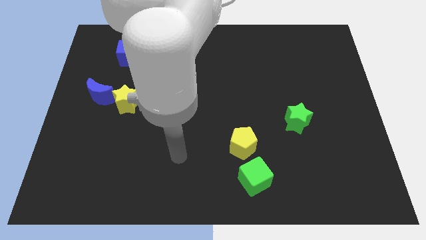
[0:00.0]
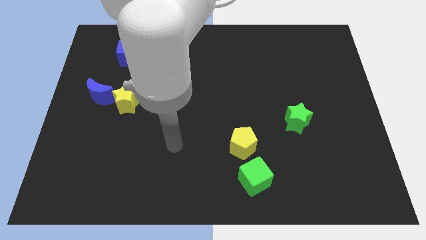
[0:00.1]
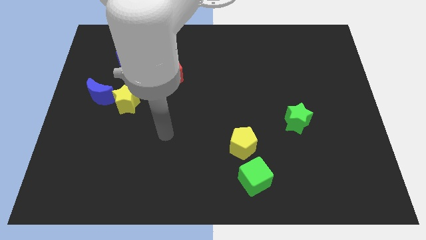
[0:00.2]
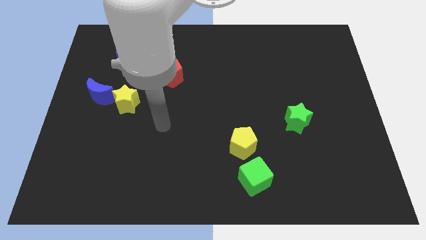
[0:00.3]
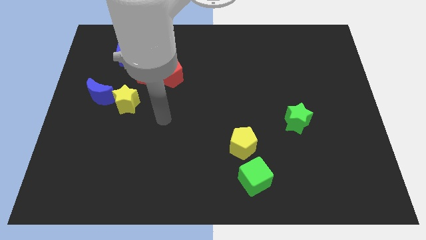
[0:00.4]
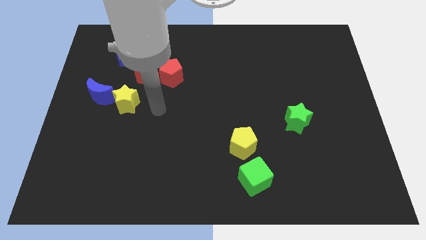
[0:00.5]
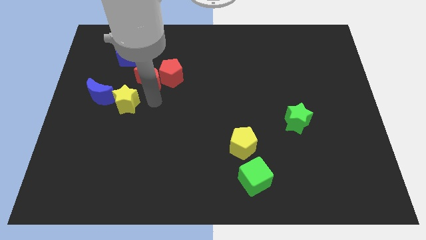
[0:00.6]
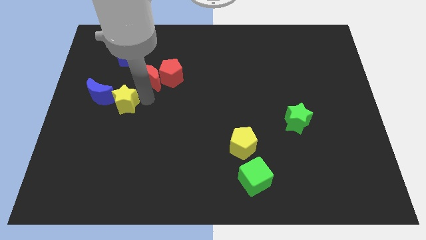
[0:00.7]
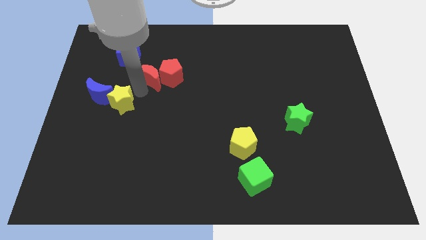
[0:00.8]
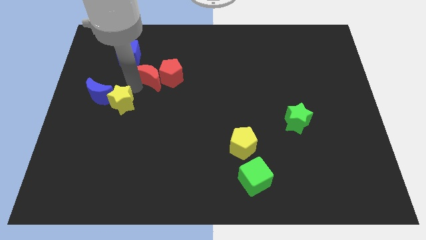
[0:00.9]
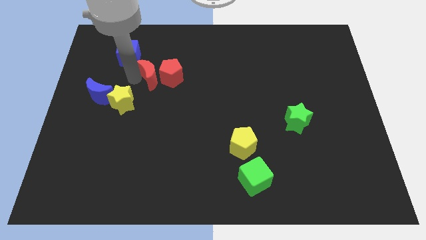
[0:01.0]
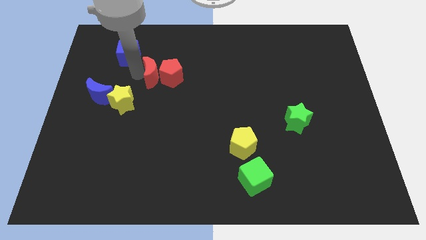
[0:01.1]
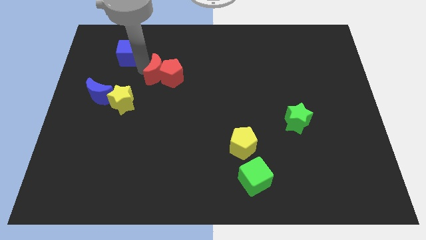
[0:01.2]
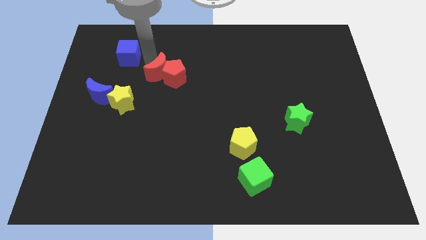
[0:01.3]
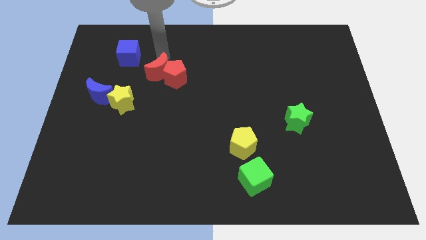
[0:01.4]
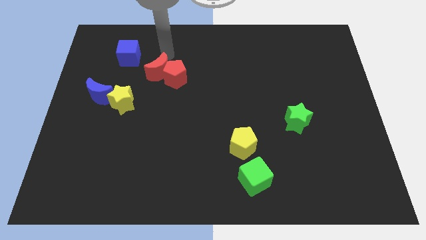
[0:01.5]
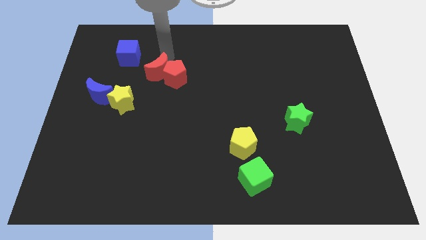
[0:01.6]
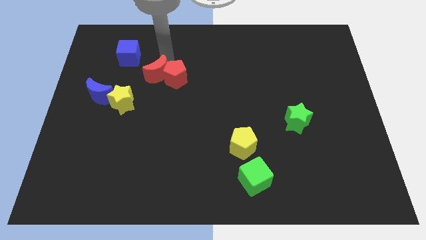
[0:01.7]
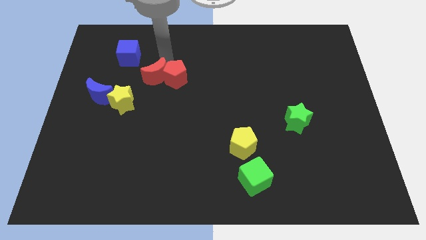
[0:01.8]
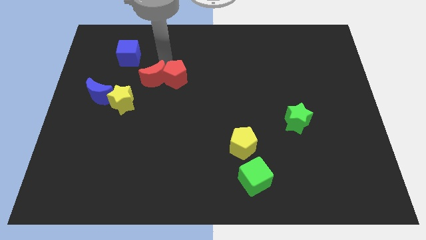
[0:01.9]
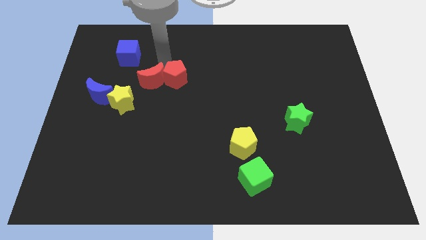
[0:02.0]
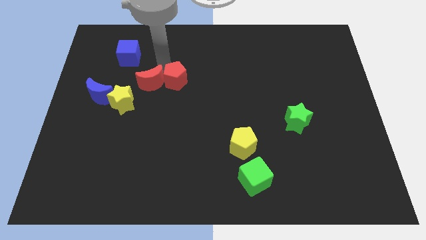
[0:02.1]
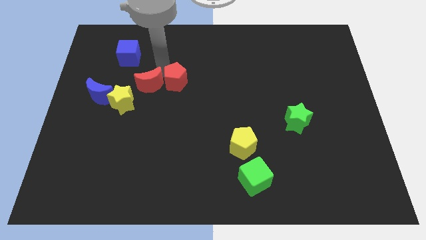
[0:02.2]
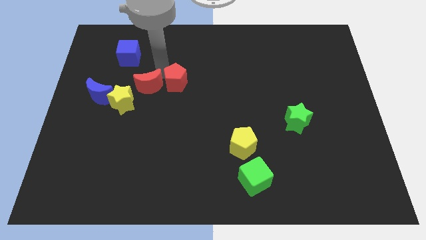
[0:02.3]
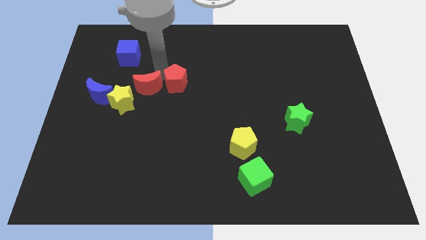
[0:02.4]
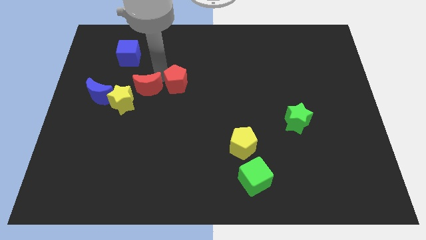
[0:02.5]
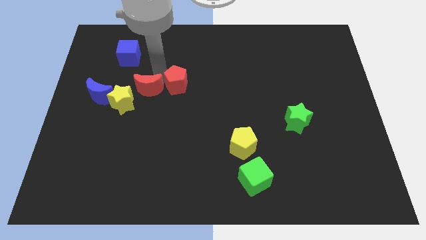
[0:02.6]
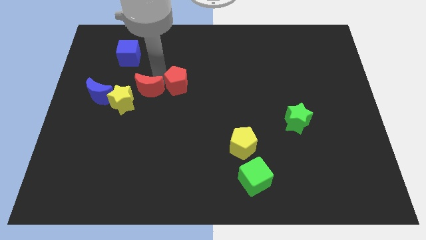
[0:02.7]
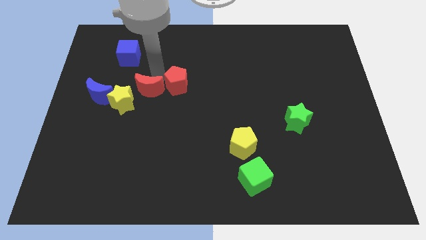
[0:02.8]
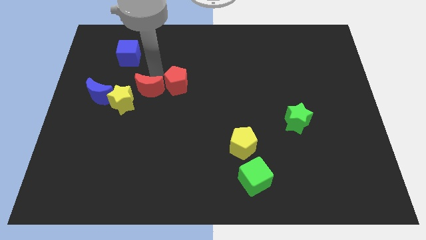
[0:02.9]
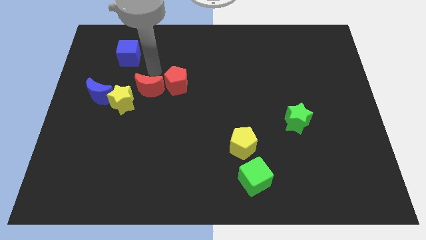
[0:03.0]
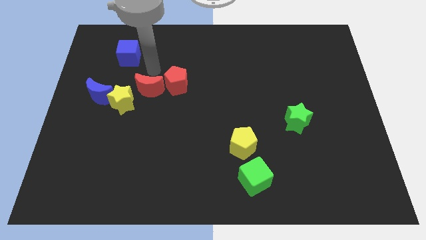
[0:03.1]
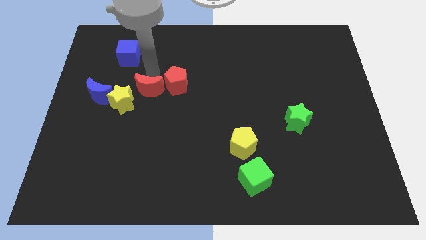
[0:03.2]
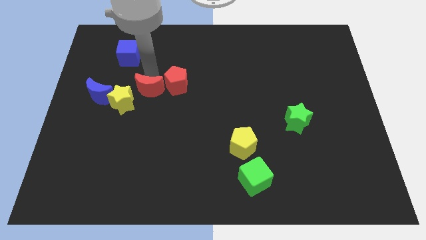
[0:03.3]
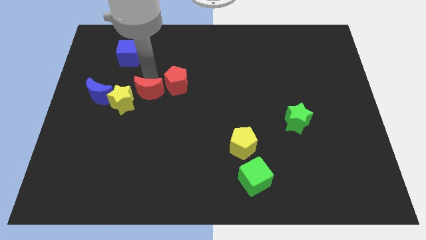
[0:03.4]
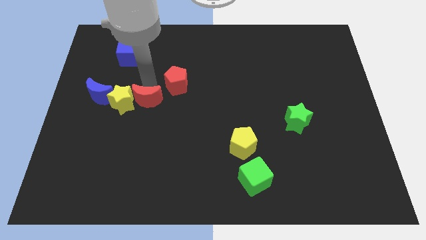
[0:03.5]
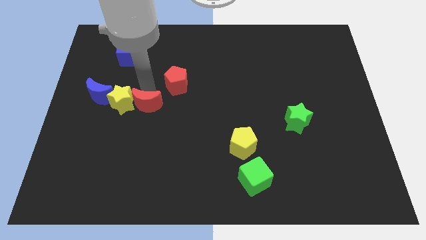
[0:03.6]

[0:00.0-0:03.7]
move the red moon a little down

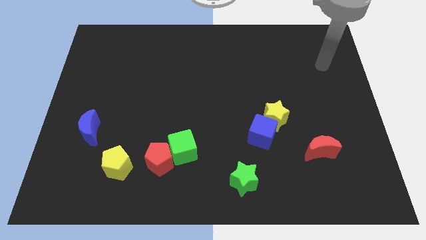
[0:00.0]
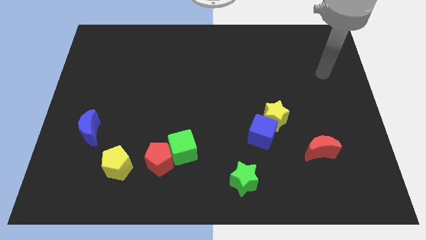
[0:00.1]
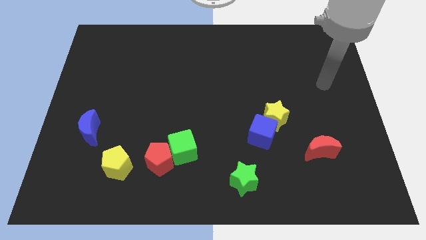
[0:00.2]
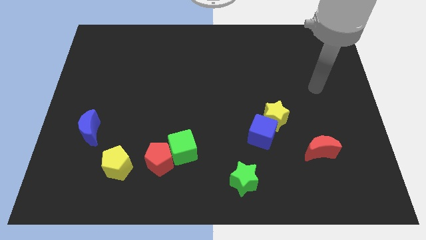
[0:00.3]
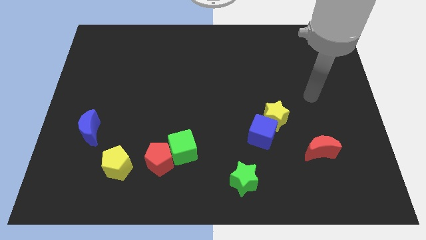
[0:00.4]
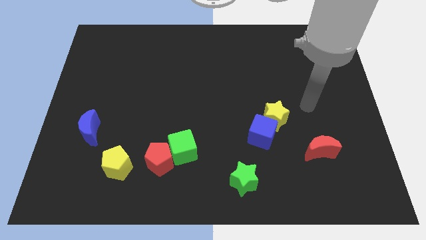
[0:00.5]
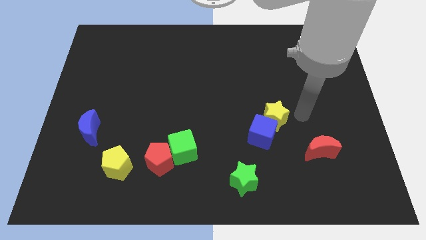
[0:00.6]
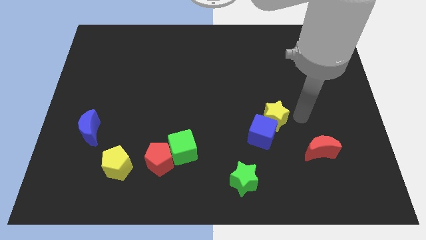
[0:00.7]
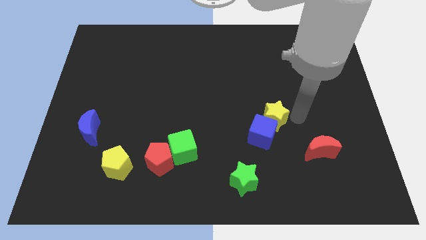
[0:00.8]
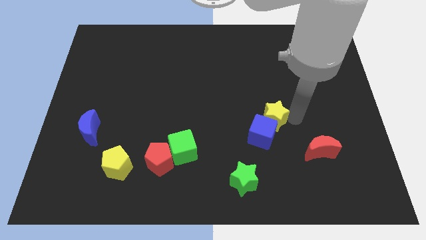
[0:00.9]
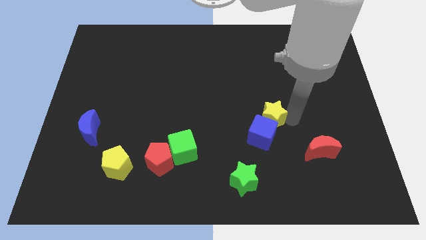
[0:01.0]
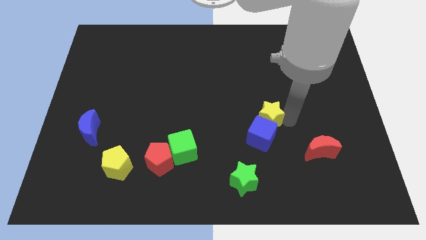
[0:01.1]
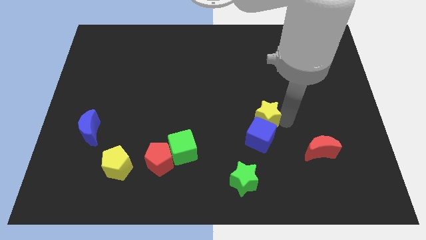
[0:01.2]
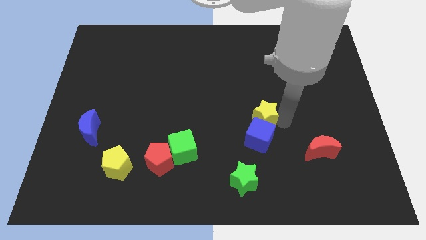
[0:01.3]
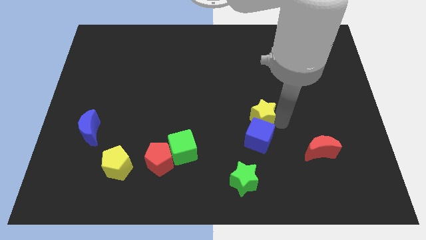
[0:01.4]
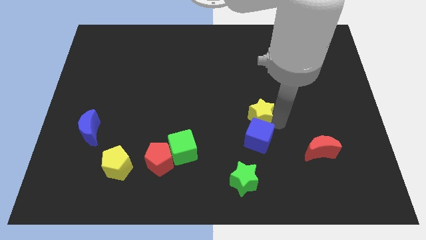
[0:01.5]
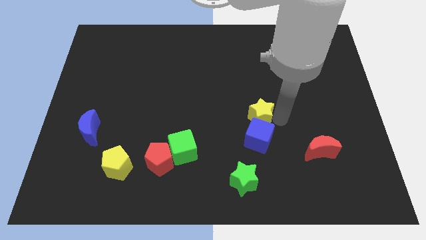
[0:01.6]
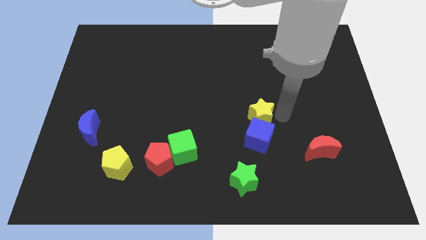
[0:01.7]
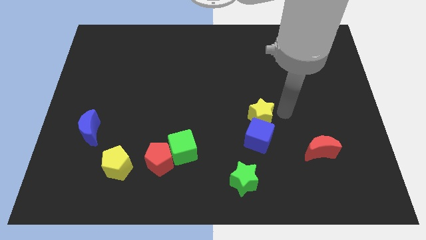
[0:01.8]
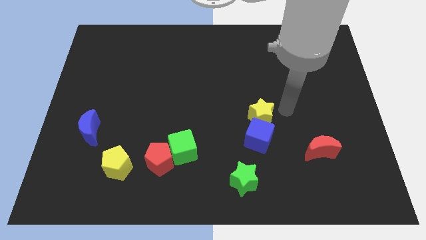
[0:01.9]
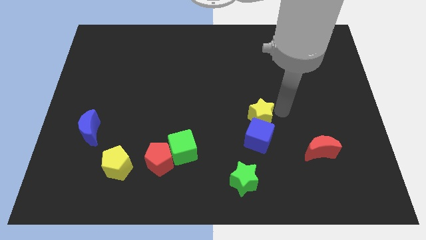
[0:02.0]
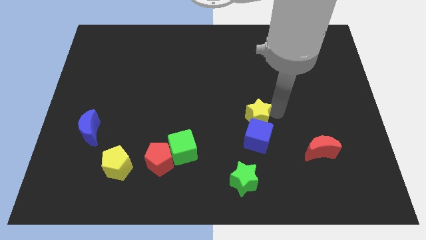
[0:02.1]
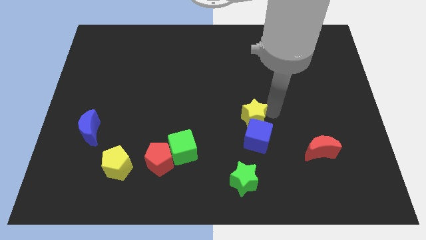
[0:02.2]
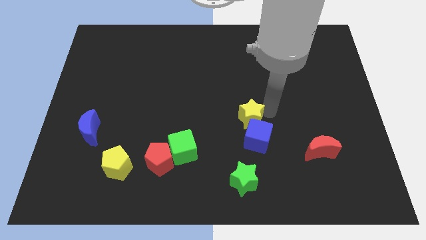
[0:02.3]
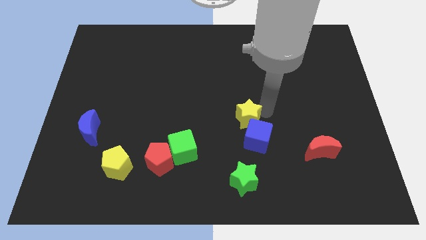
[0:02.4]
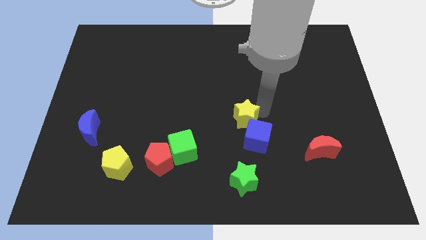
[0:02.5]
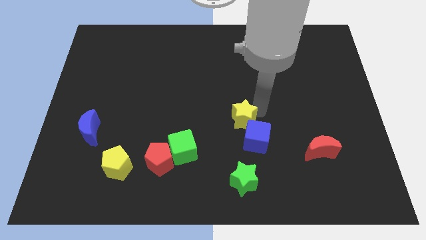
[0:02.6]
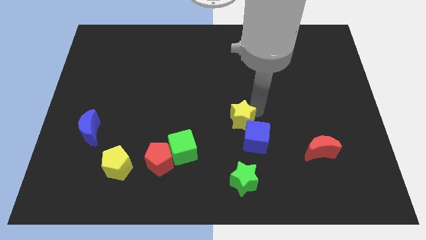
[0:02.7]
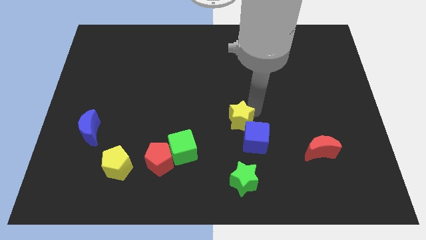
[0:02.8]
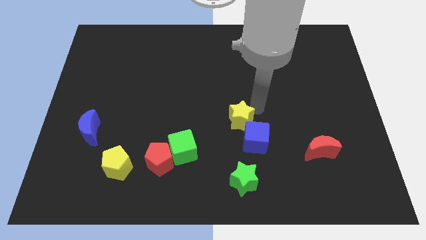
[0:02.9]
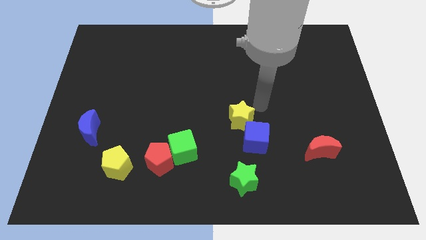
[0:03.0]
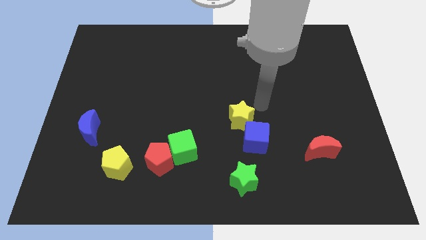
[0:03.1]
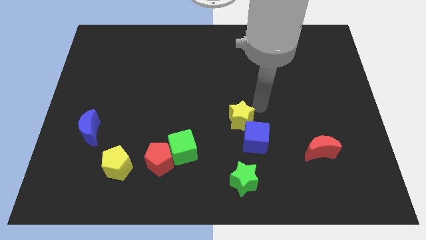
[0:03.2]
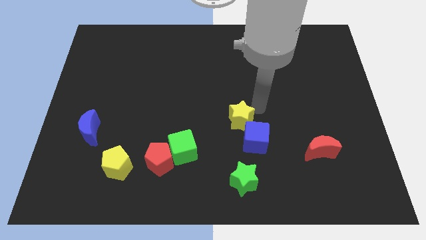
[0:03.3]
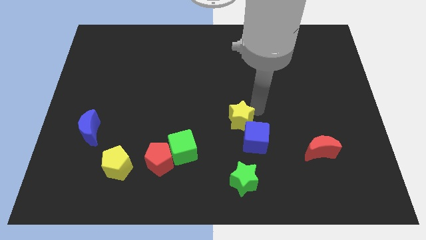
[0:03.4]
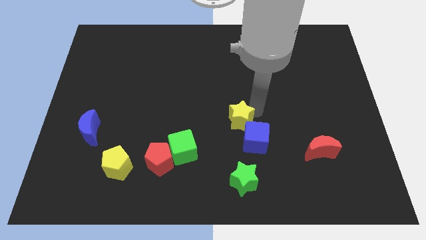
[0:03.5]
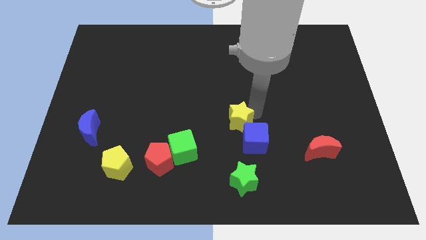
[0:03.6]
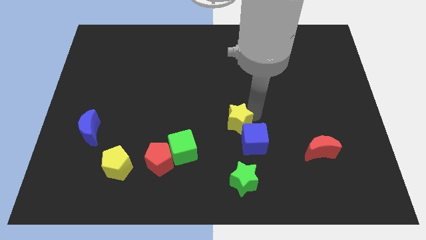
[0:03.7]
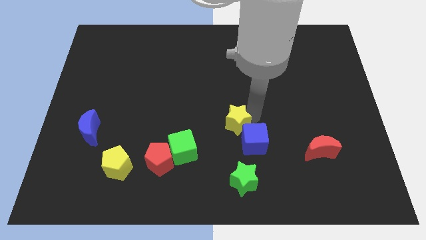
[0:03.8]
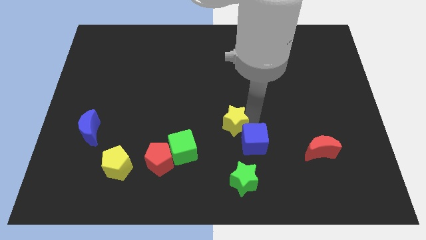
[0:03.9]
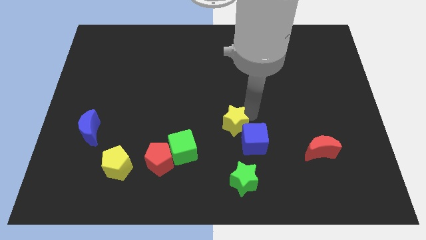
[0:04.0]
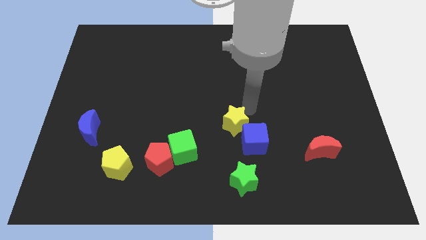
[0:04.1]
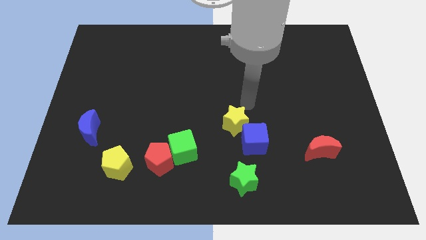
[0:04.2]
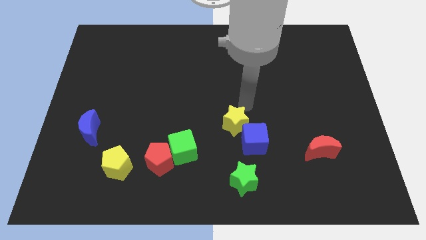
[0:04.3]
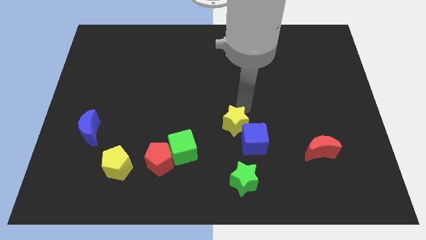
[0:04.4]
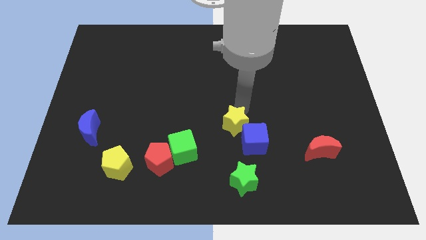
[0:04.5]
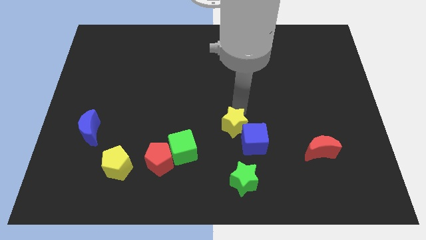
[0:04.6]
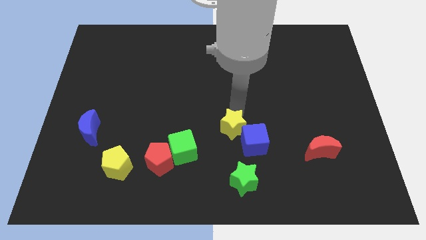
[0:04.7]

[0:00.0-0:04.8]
move the yellow star slightly downwards and then to the left
